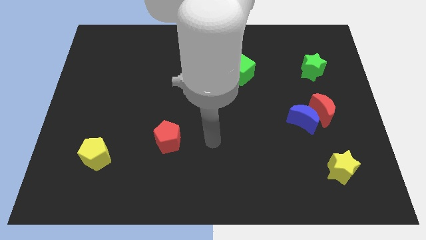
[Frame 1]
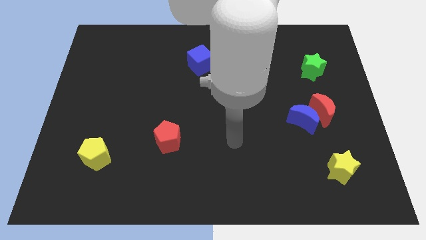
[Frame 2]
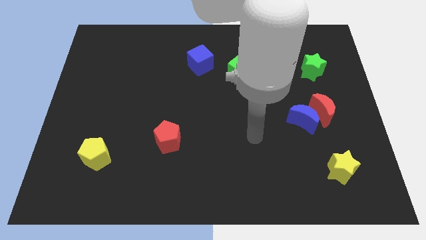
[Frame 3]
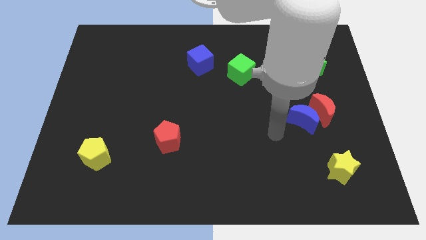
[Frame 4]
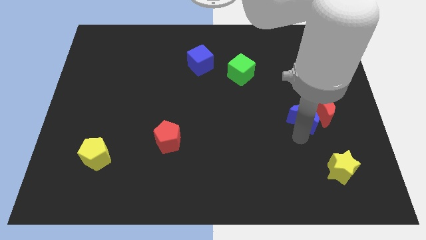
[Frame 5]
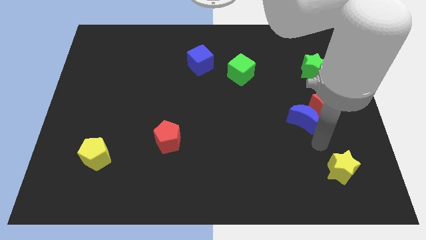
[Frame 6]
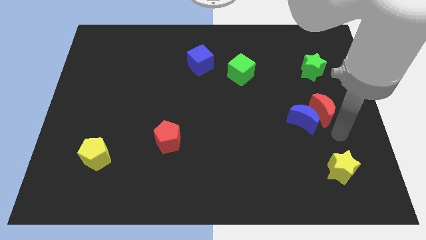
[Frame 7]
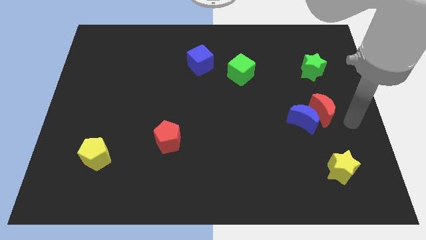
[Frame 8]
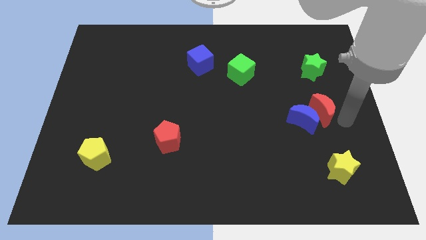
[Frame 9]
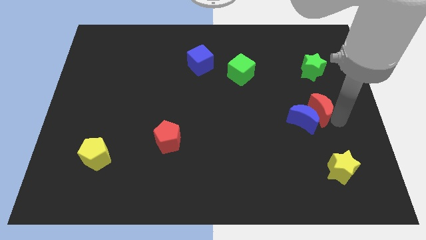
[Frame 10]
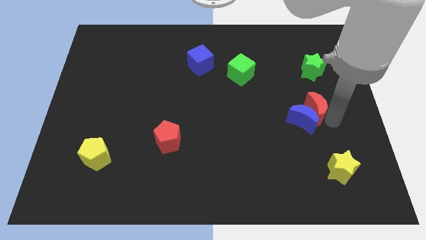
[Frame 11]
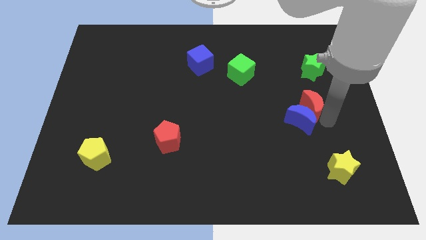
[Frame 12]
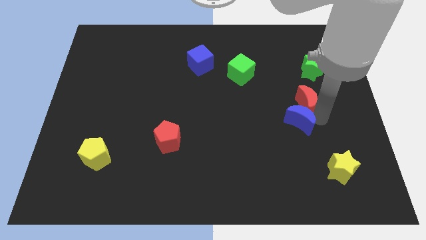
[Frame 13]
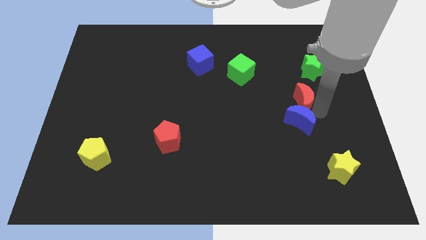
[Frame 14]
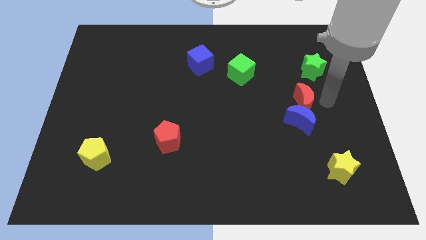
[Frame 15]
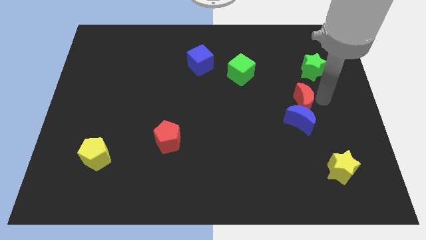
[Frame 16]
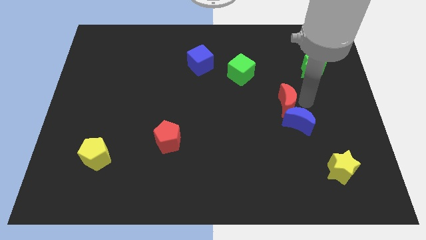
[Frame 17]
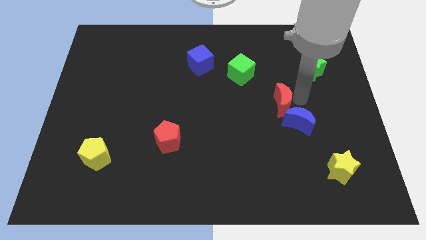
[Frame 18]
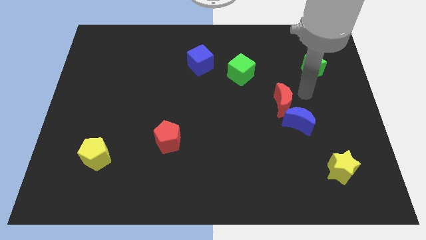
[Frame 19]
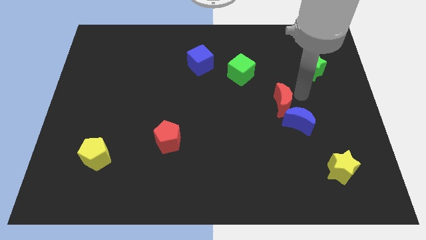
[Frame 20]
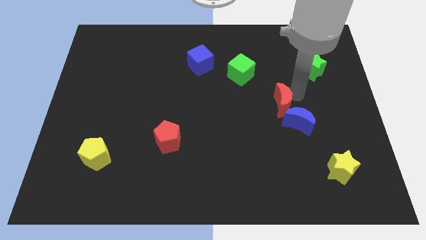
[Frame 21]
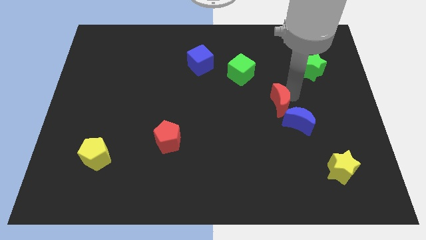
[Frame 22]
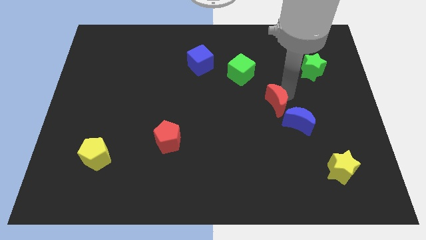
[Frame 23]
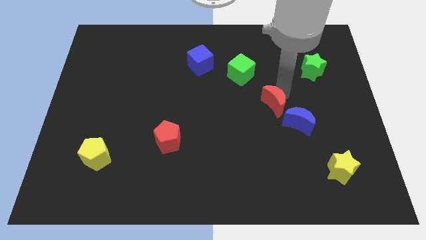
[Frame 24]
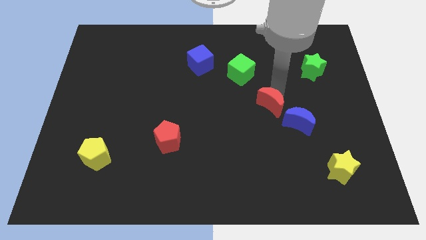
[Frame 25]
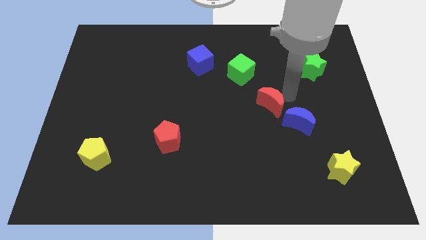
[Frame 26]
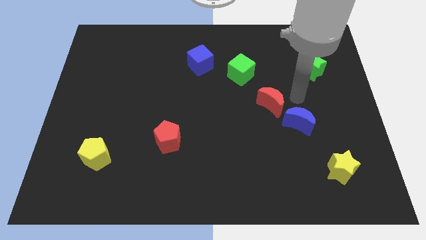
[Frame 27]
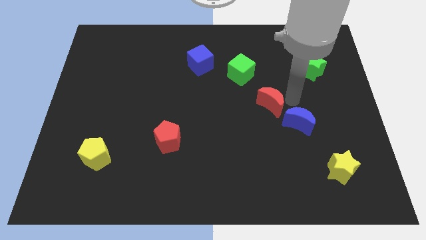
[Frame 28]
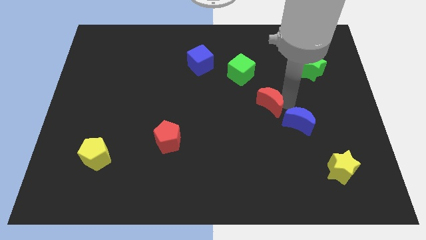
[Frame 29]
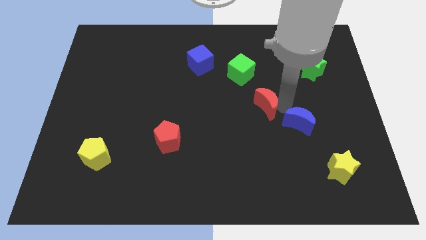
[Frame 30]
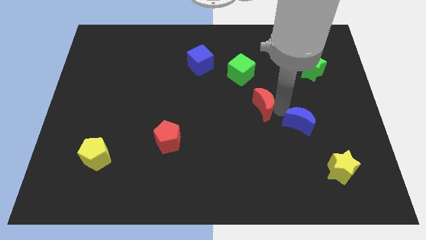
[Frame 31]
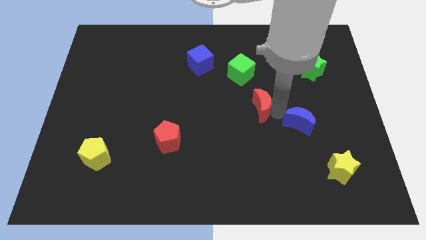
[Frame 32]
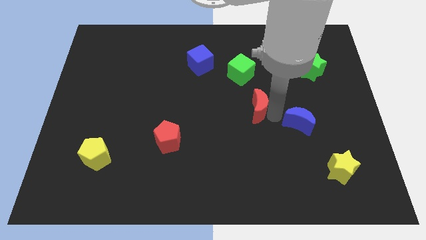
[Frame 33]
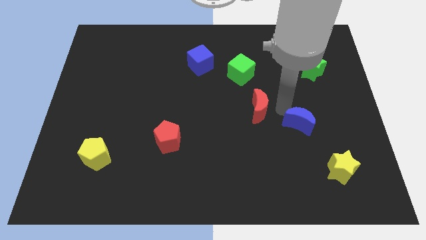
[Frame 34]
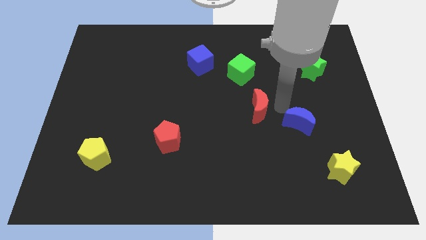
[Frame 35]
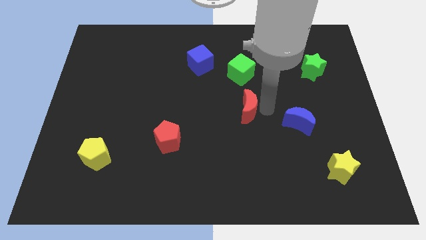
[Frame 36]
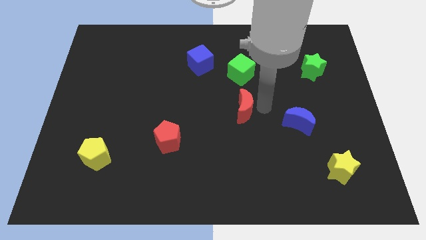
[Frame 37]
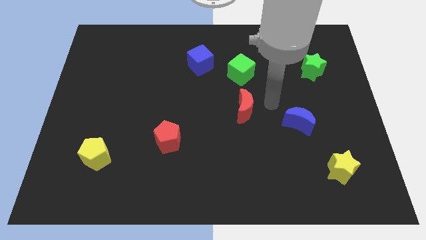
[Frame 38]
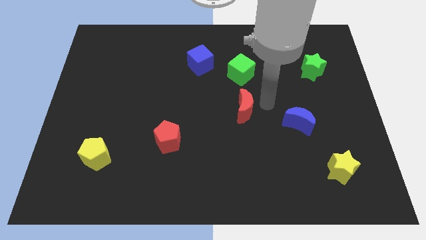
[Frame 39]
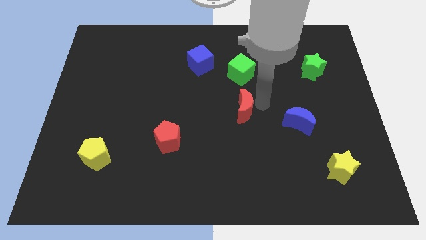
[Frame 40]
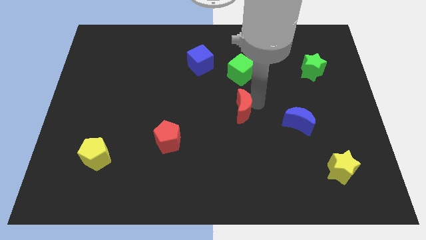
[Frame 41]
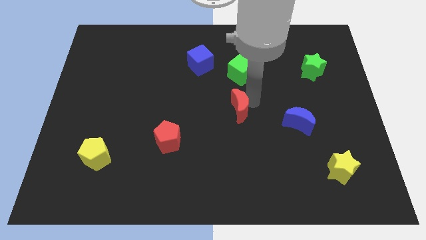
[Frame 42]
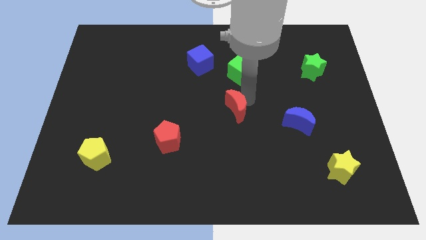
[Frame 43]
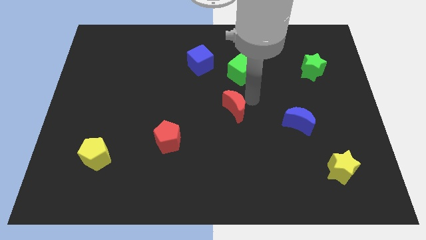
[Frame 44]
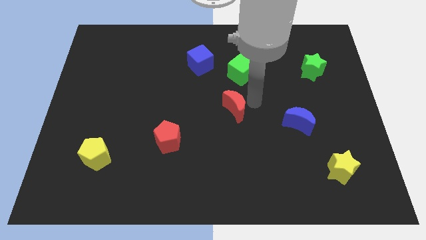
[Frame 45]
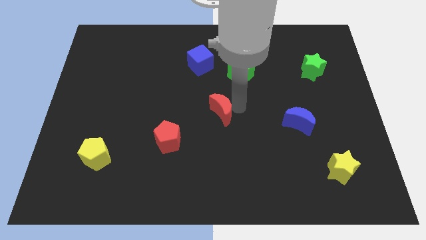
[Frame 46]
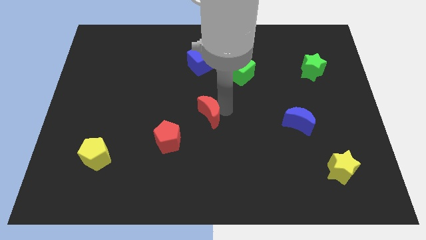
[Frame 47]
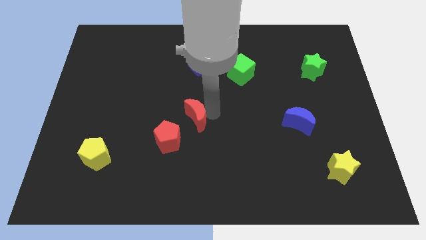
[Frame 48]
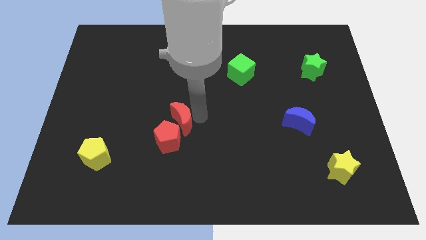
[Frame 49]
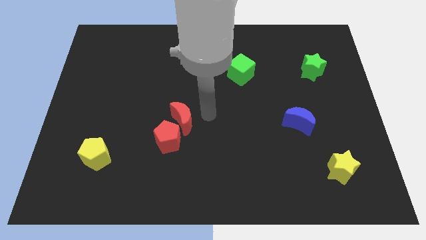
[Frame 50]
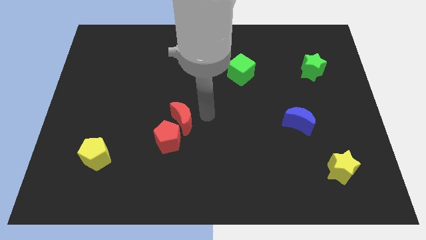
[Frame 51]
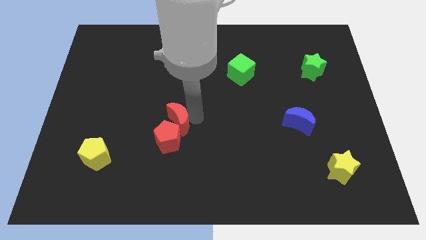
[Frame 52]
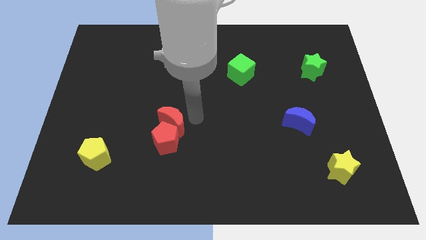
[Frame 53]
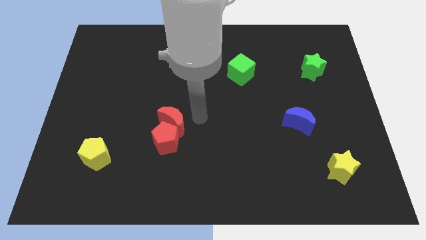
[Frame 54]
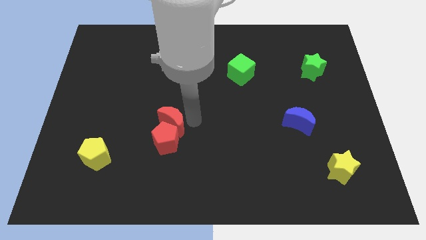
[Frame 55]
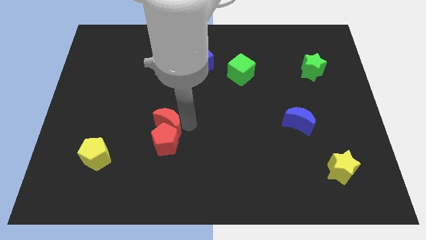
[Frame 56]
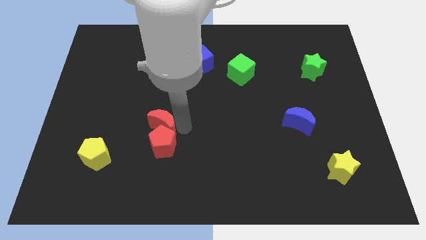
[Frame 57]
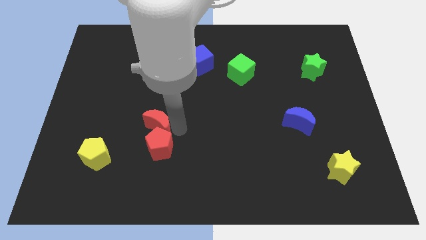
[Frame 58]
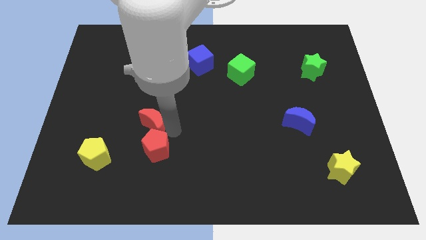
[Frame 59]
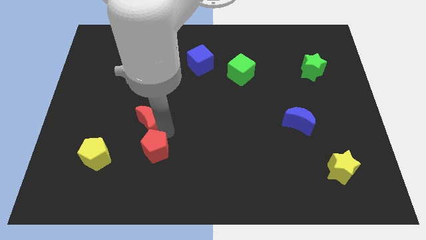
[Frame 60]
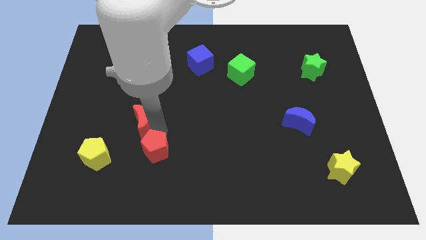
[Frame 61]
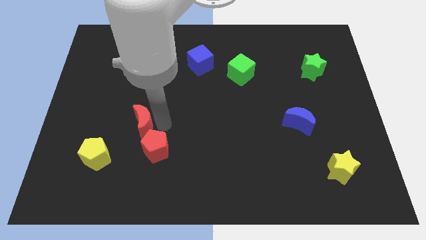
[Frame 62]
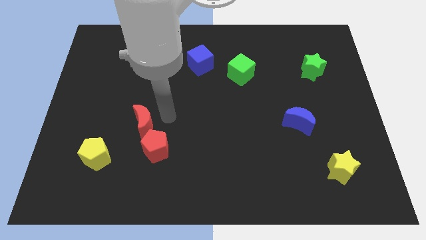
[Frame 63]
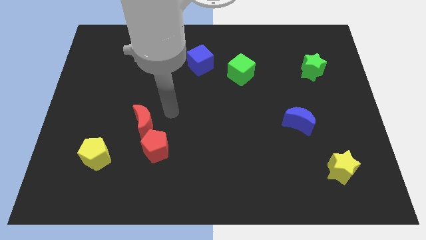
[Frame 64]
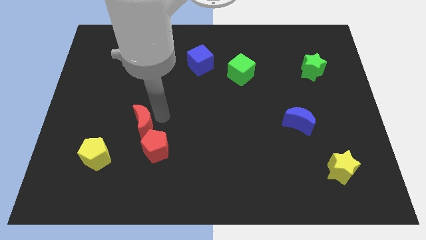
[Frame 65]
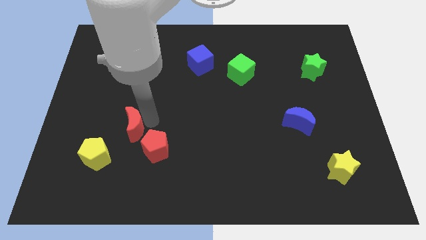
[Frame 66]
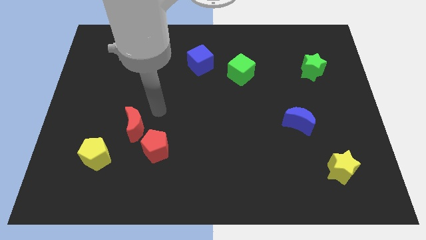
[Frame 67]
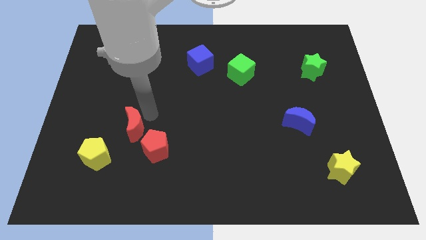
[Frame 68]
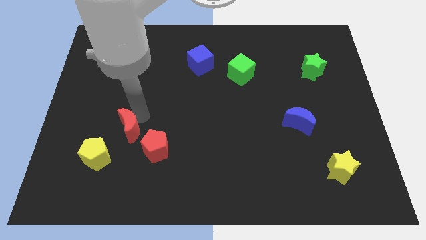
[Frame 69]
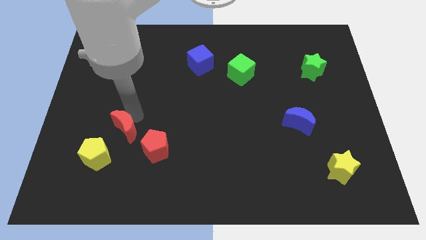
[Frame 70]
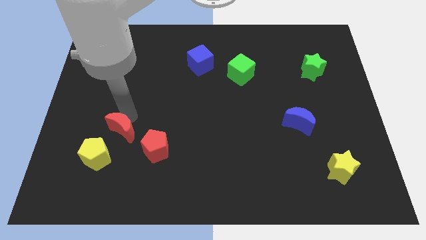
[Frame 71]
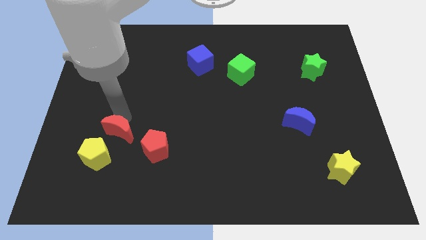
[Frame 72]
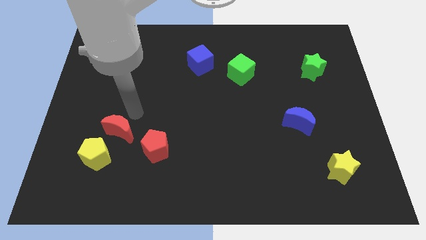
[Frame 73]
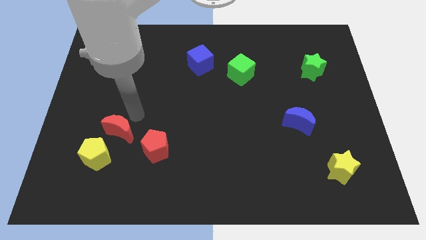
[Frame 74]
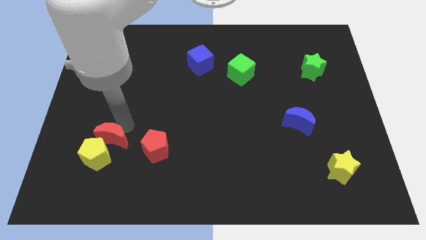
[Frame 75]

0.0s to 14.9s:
slide the red moon to the yellow pentagon
